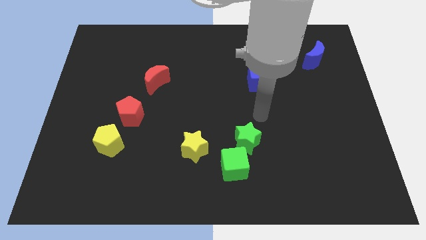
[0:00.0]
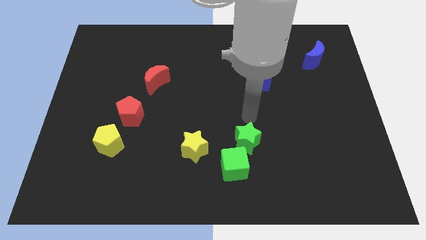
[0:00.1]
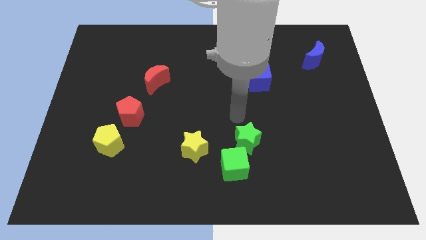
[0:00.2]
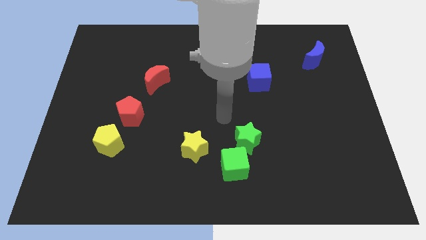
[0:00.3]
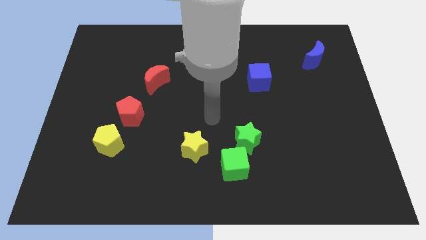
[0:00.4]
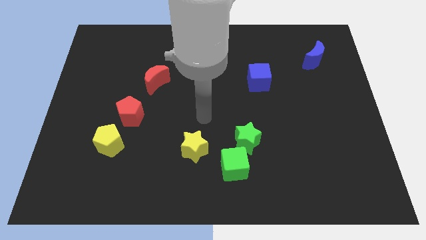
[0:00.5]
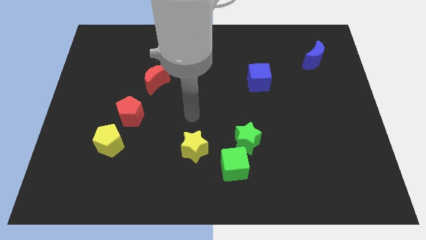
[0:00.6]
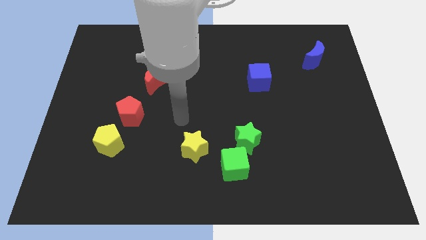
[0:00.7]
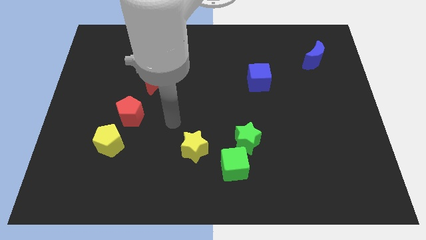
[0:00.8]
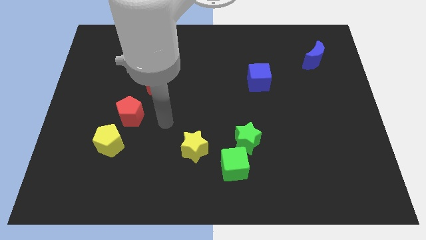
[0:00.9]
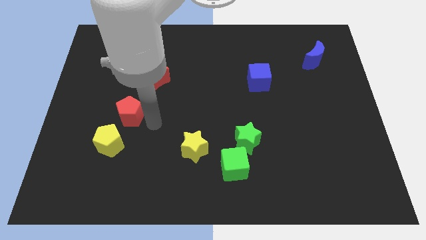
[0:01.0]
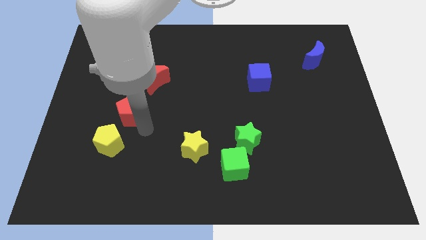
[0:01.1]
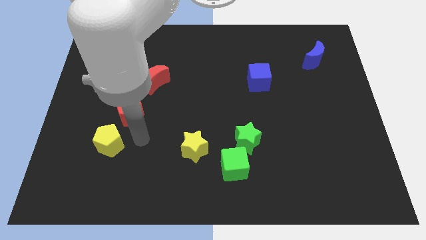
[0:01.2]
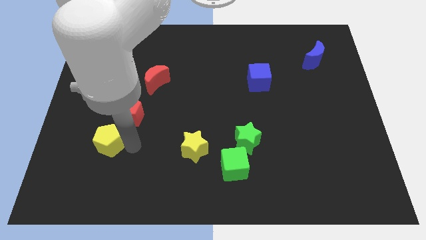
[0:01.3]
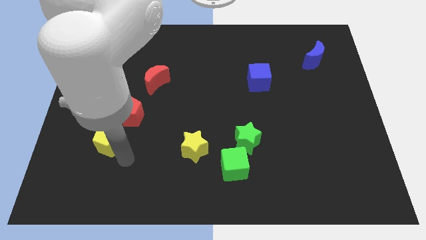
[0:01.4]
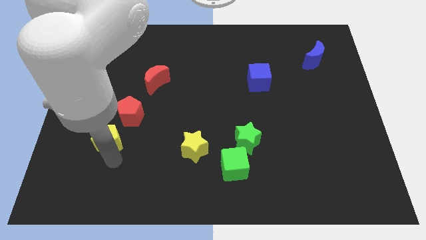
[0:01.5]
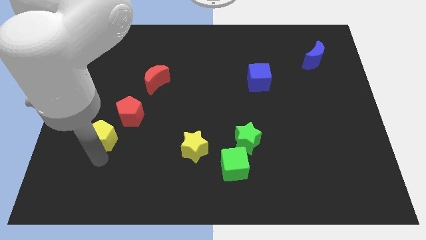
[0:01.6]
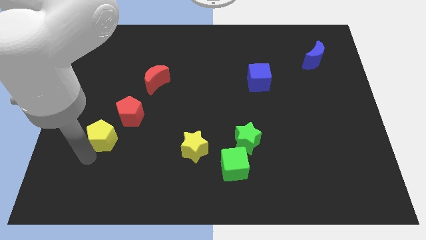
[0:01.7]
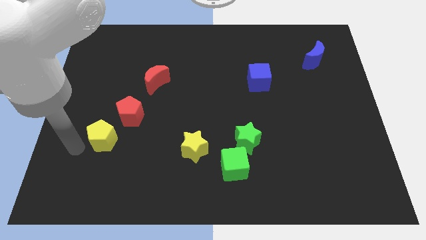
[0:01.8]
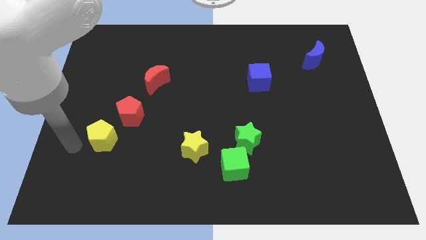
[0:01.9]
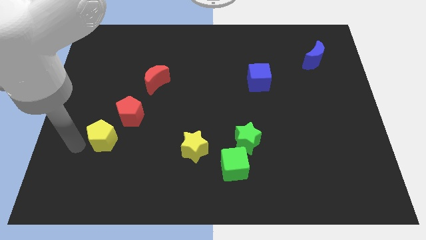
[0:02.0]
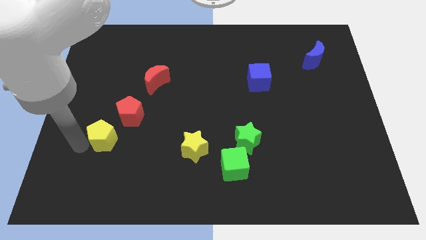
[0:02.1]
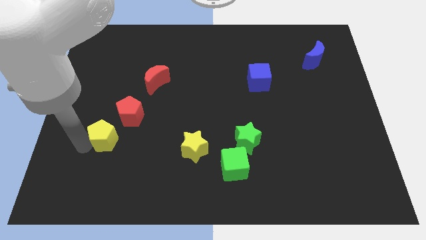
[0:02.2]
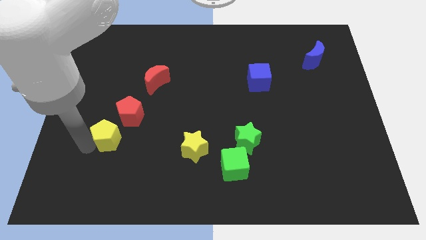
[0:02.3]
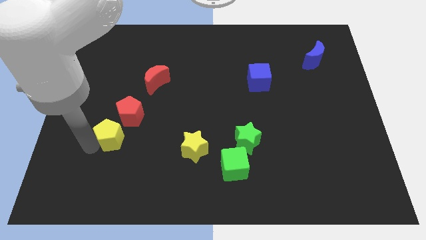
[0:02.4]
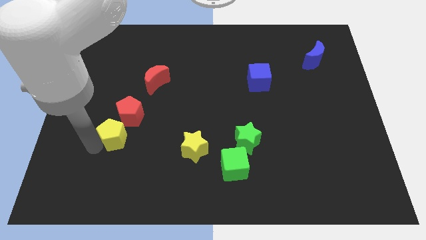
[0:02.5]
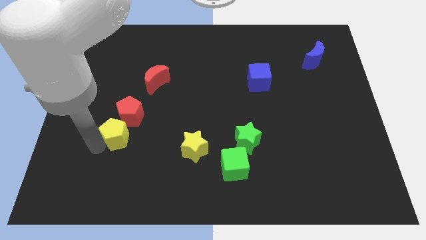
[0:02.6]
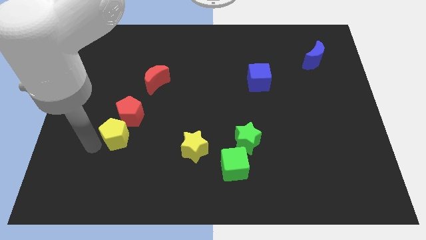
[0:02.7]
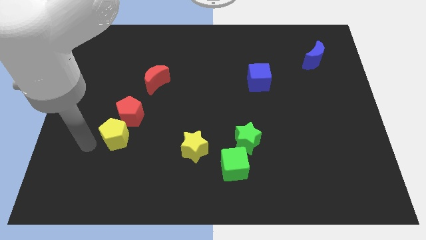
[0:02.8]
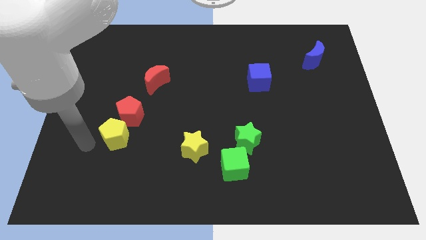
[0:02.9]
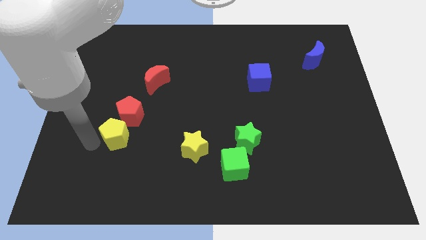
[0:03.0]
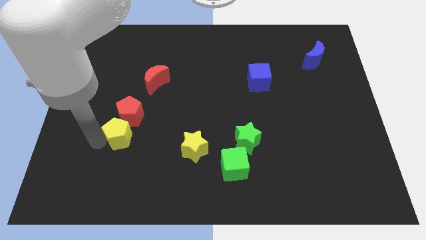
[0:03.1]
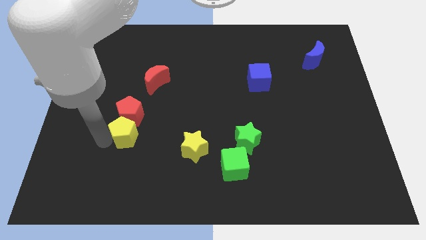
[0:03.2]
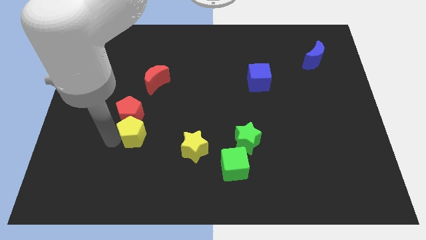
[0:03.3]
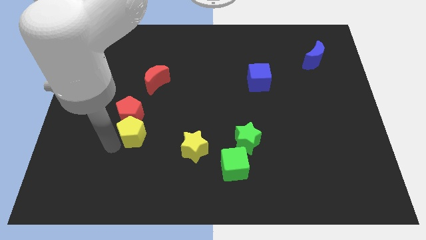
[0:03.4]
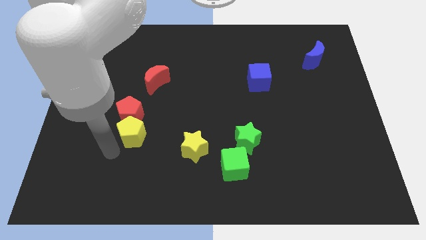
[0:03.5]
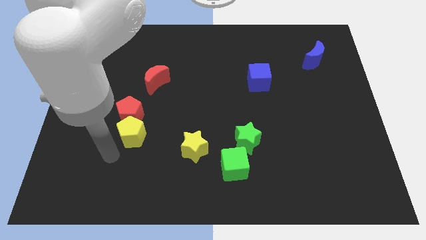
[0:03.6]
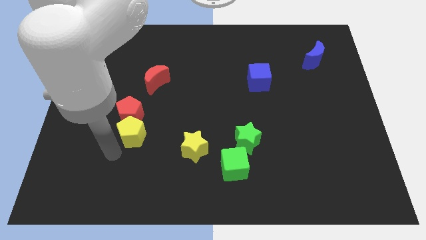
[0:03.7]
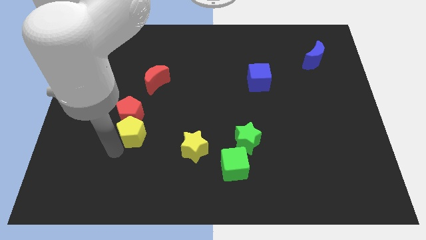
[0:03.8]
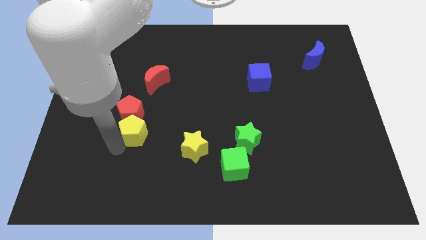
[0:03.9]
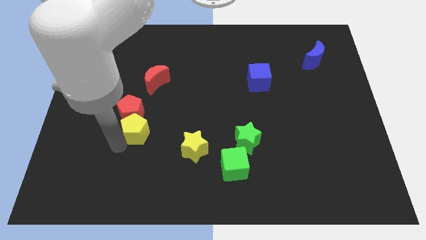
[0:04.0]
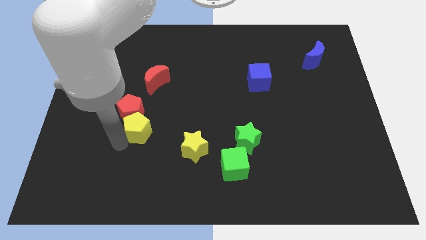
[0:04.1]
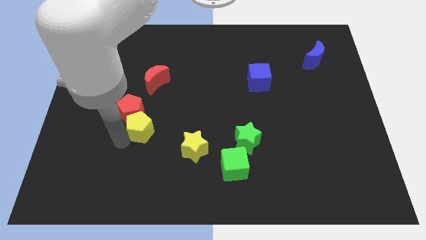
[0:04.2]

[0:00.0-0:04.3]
slide the yellow pentagon somewhat diagonally upwards and right

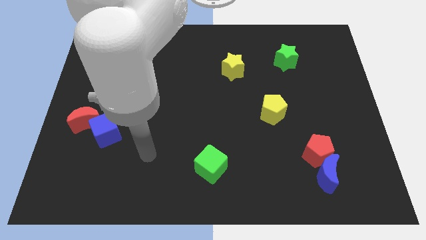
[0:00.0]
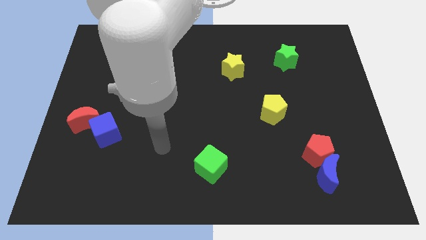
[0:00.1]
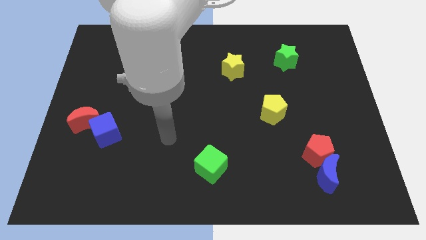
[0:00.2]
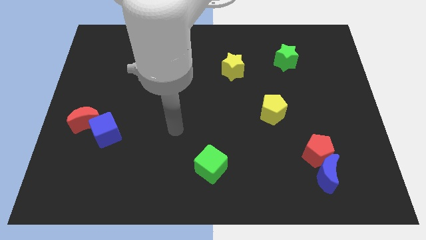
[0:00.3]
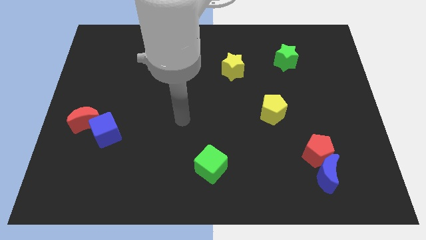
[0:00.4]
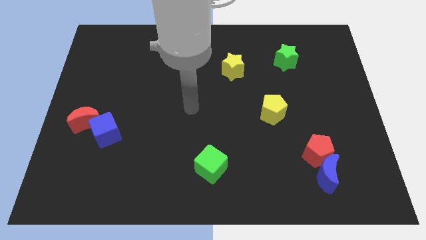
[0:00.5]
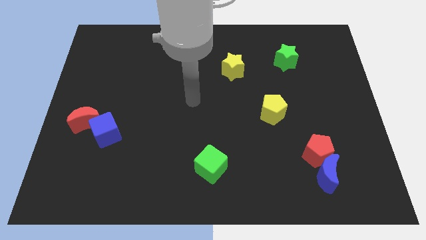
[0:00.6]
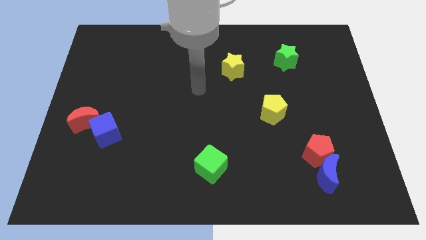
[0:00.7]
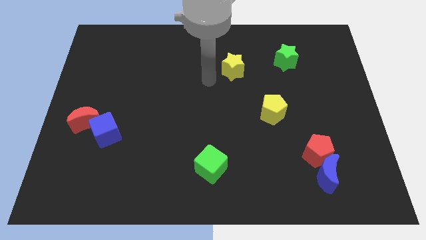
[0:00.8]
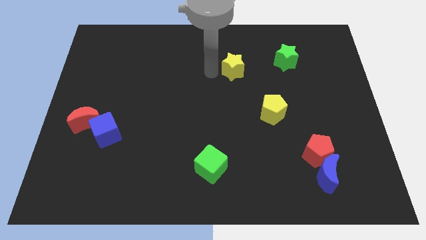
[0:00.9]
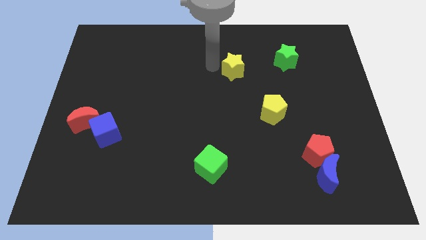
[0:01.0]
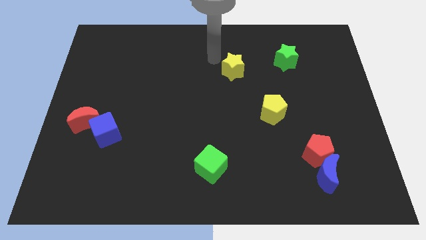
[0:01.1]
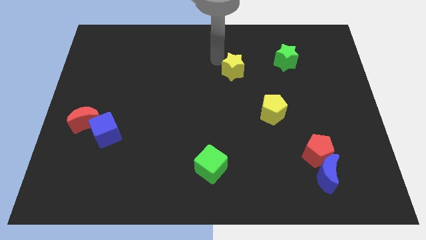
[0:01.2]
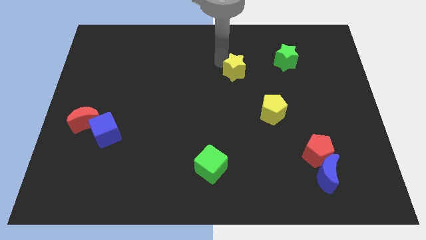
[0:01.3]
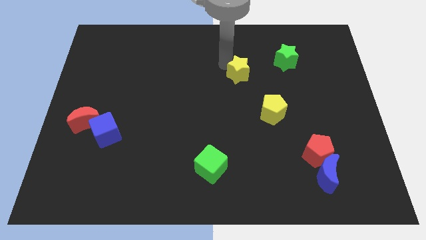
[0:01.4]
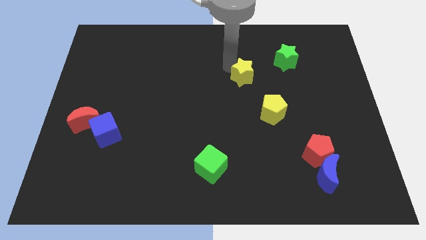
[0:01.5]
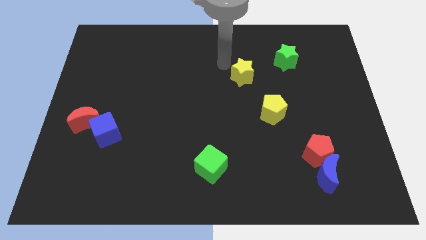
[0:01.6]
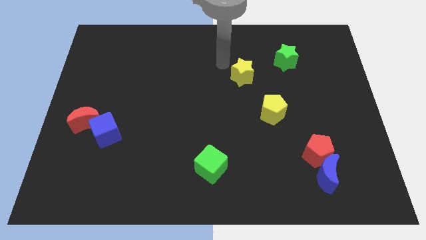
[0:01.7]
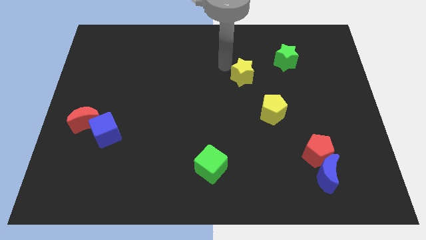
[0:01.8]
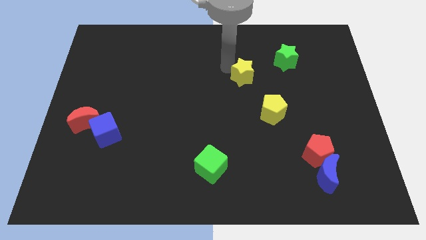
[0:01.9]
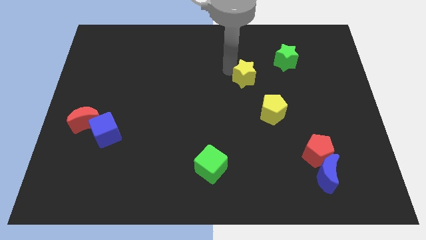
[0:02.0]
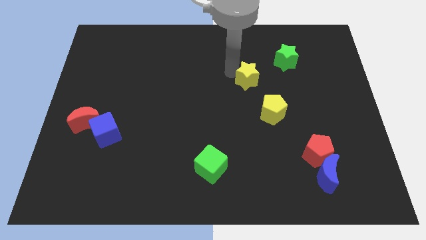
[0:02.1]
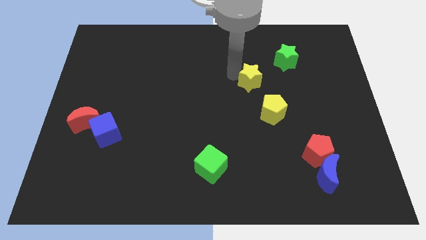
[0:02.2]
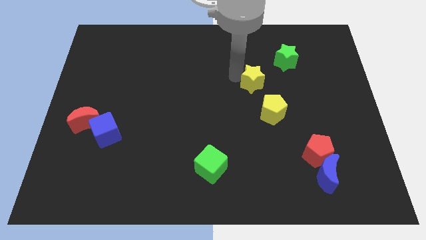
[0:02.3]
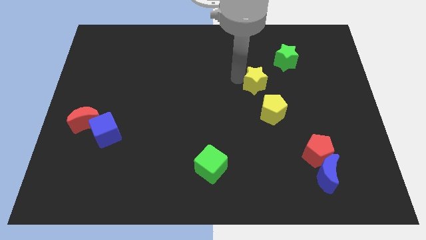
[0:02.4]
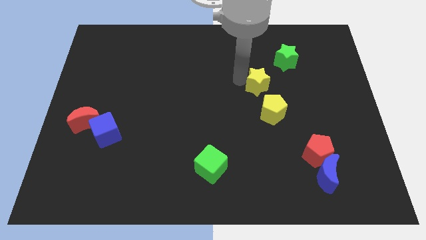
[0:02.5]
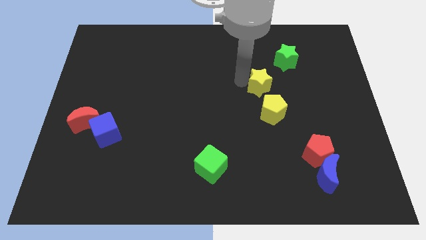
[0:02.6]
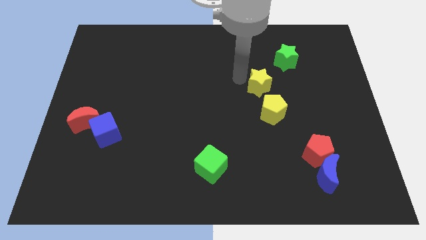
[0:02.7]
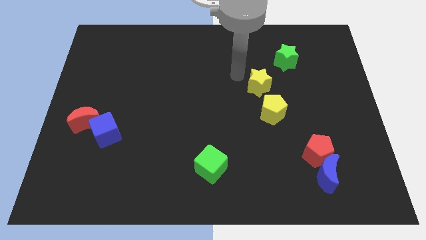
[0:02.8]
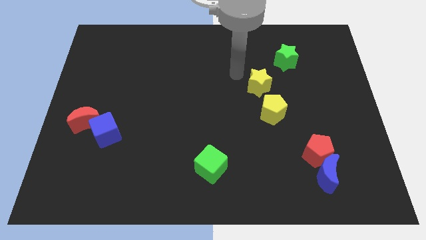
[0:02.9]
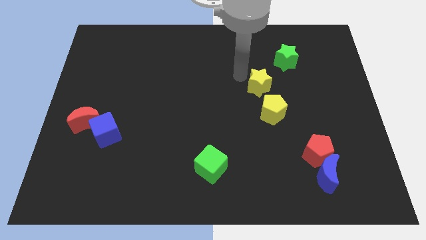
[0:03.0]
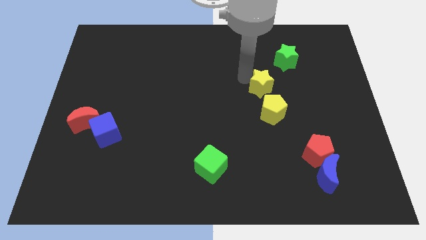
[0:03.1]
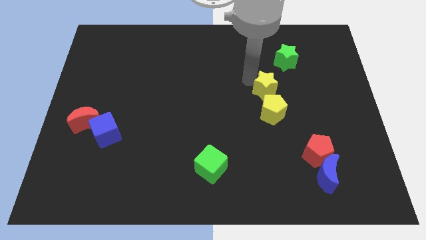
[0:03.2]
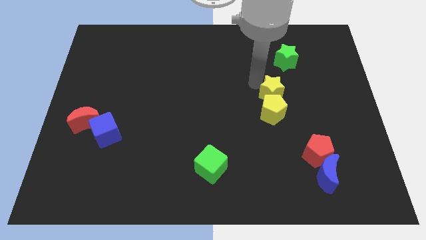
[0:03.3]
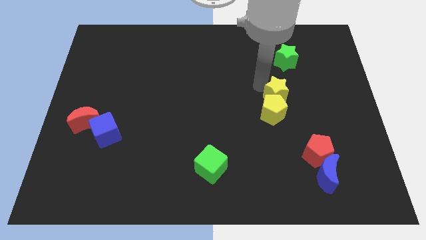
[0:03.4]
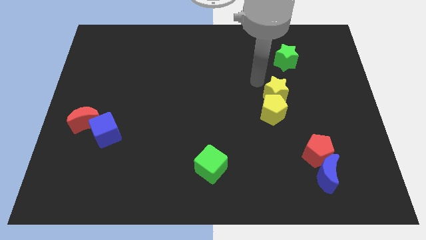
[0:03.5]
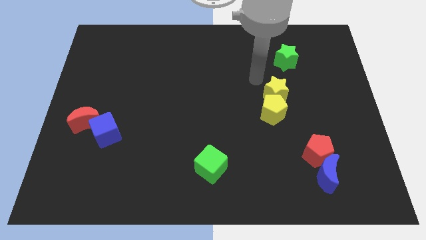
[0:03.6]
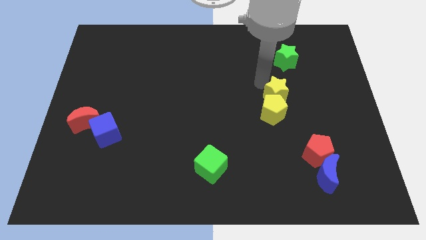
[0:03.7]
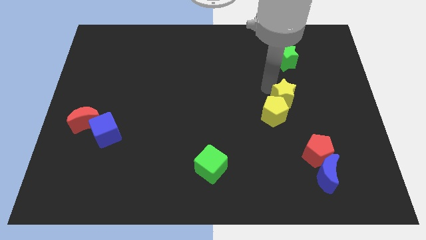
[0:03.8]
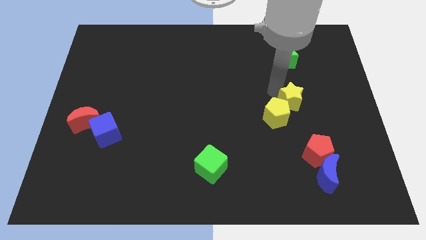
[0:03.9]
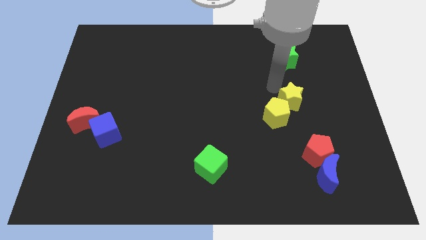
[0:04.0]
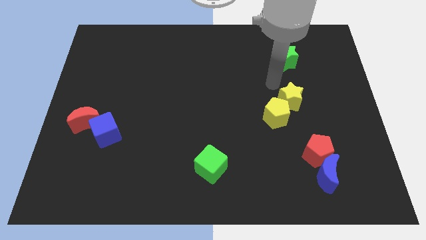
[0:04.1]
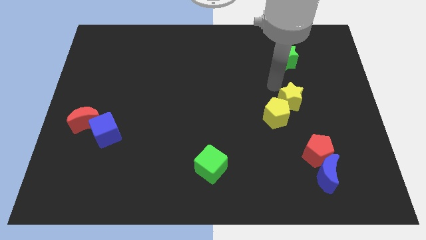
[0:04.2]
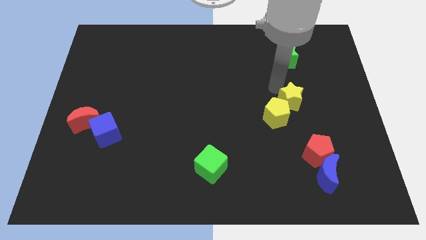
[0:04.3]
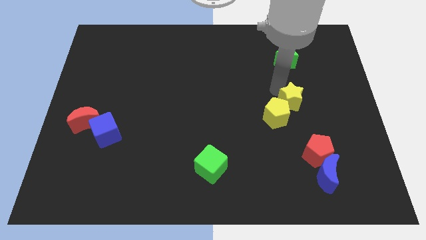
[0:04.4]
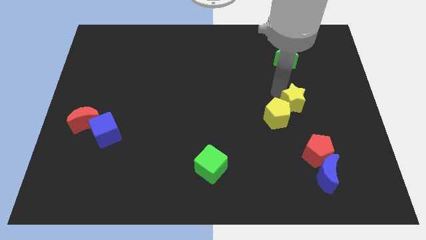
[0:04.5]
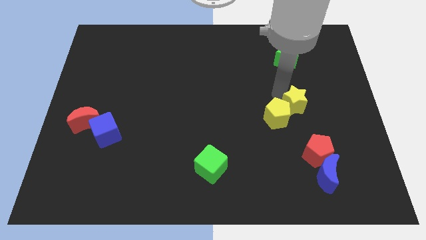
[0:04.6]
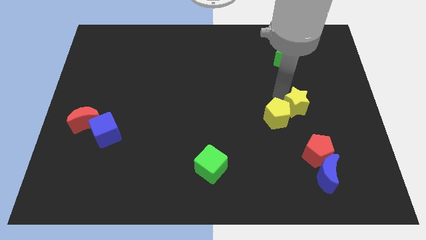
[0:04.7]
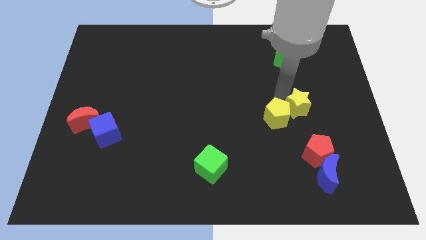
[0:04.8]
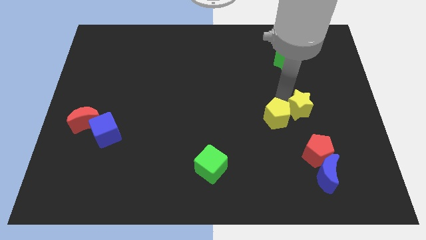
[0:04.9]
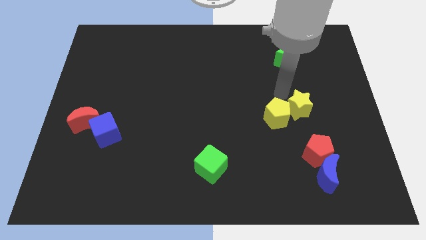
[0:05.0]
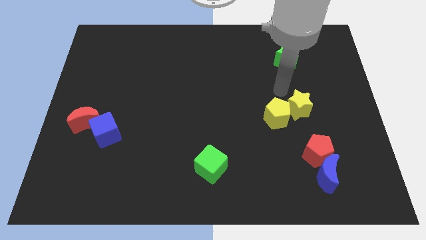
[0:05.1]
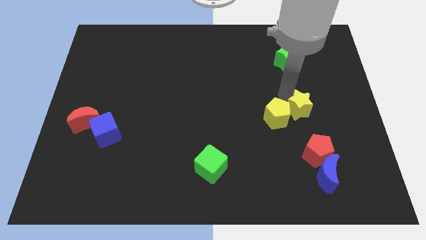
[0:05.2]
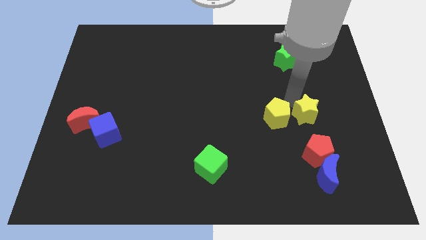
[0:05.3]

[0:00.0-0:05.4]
slide the yellow star downwards and then right
